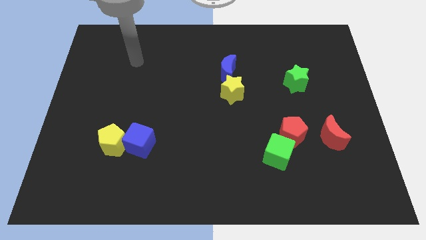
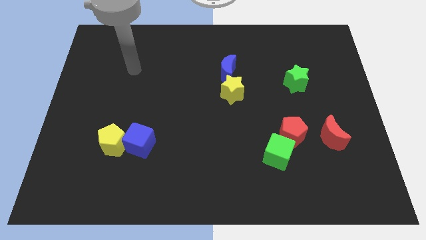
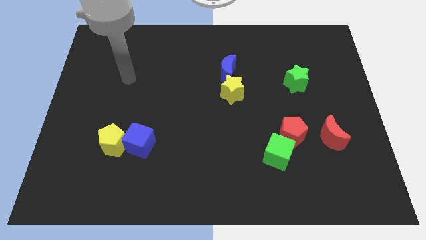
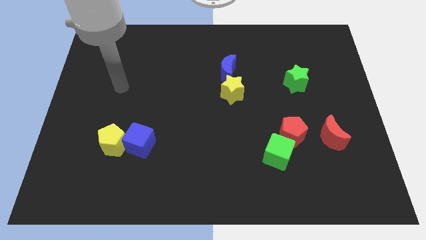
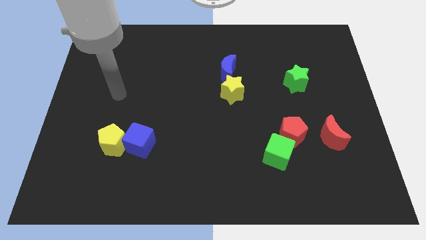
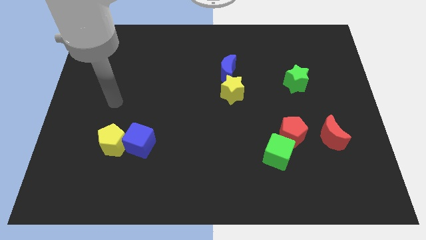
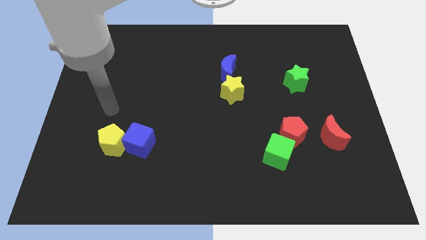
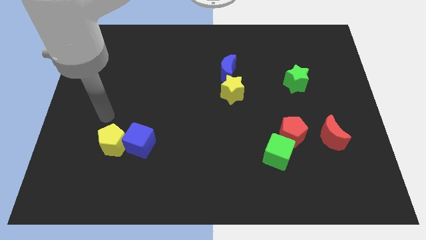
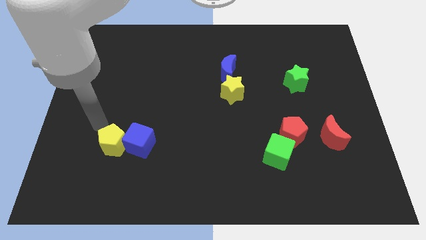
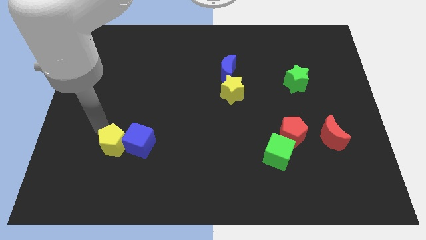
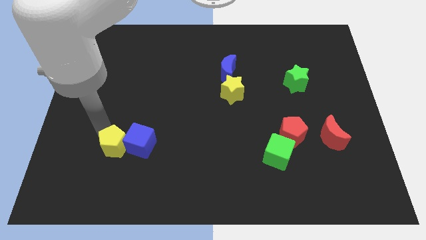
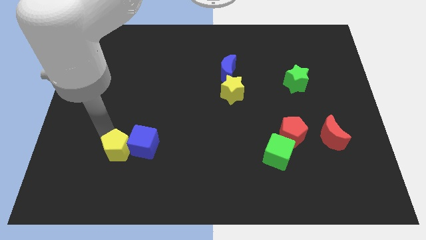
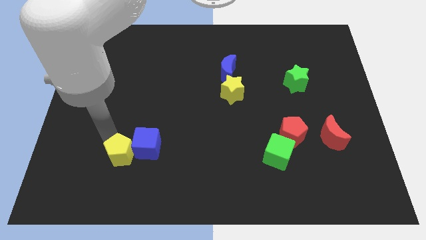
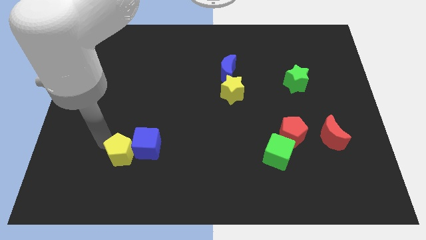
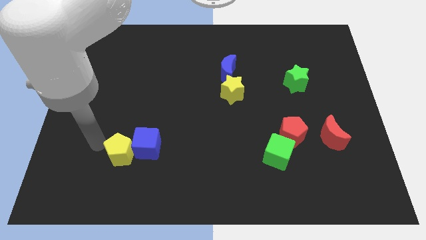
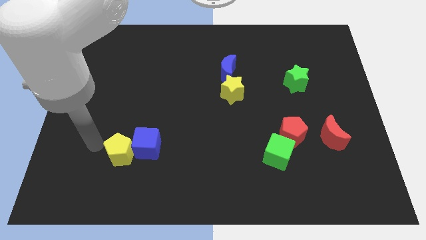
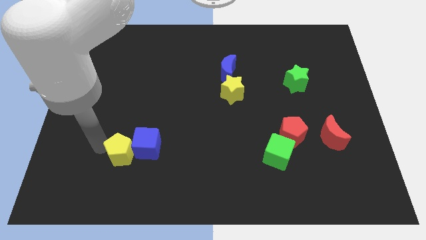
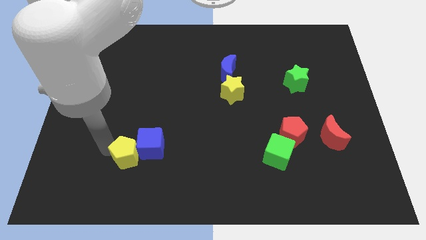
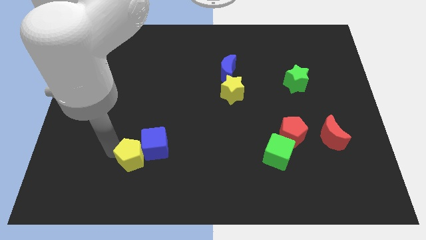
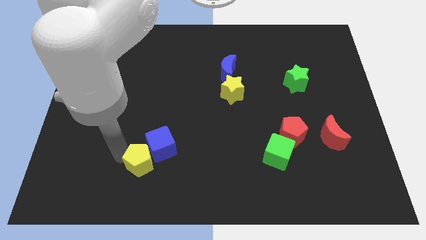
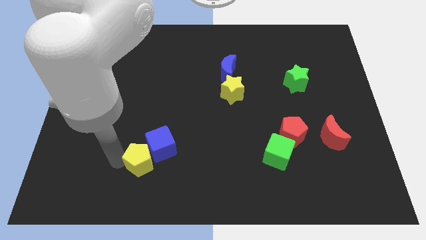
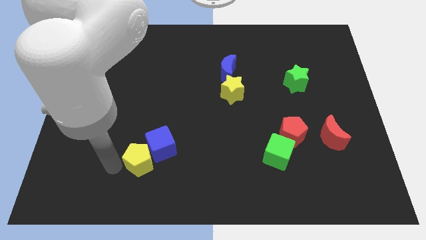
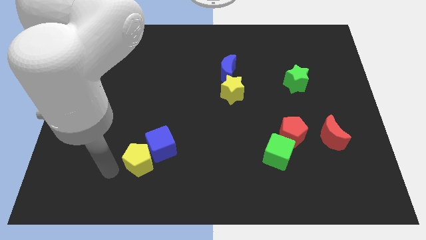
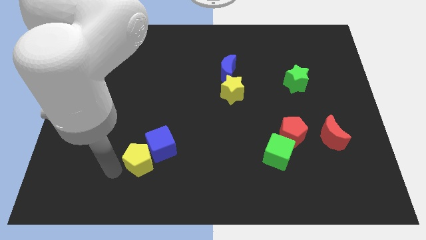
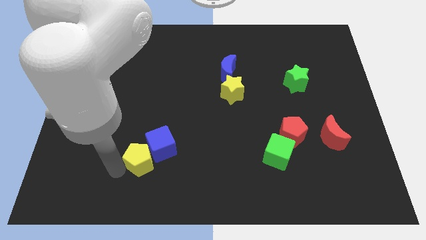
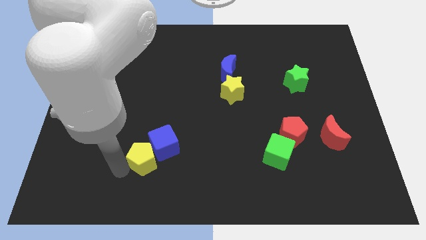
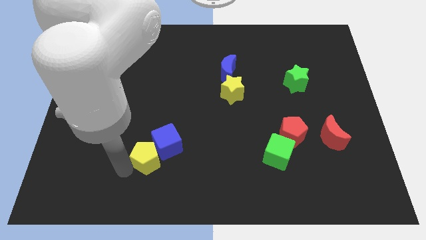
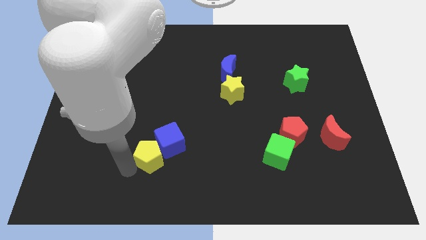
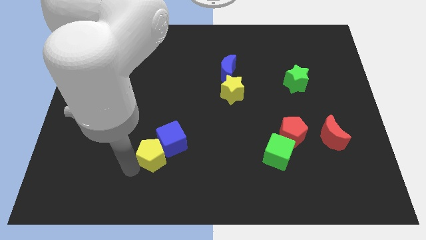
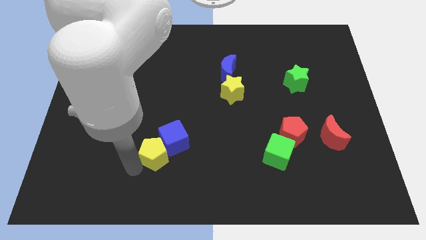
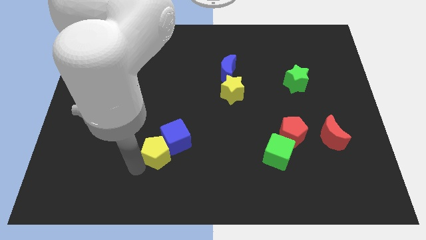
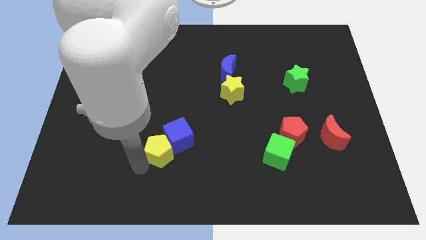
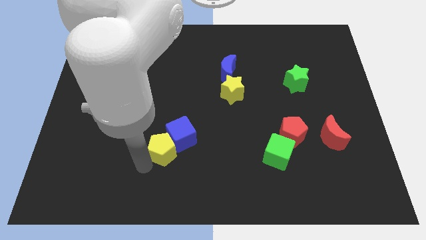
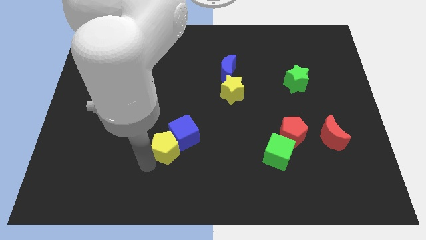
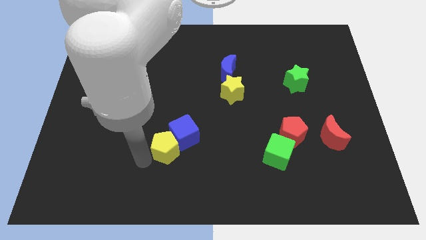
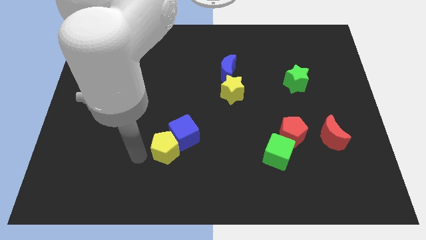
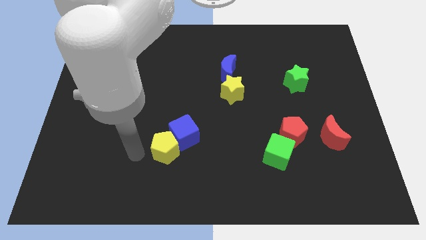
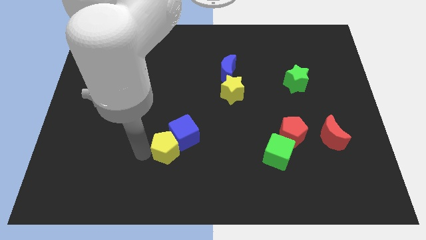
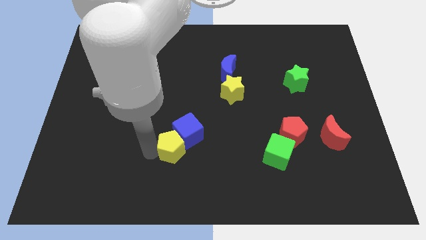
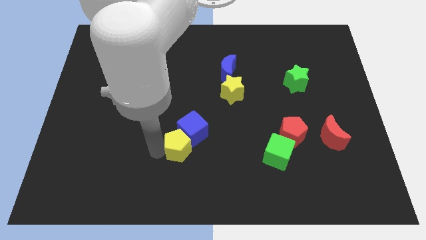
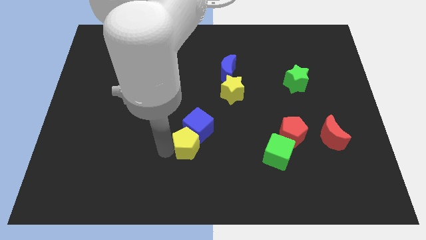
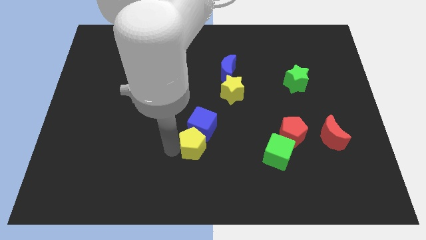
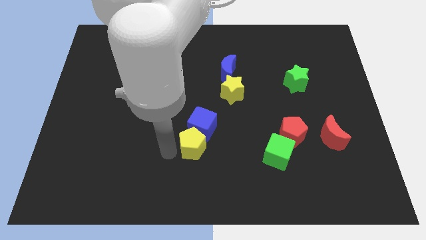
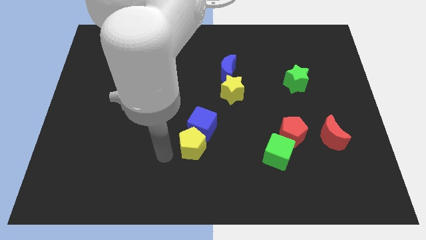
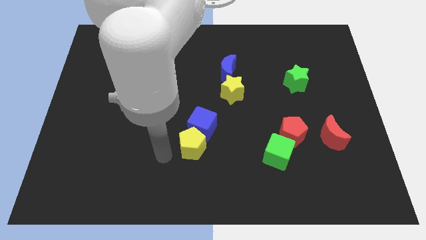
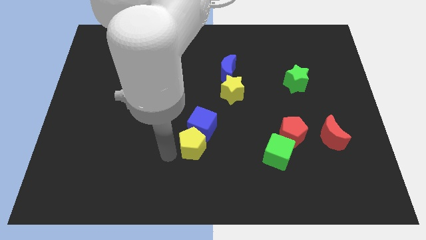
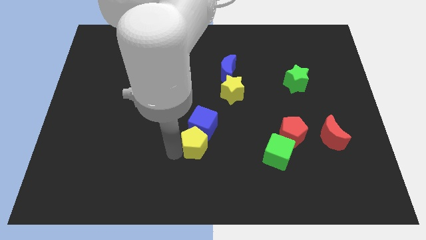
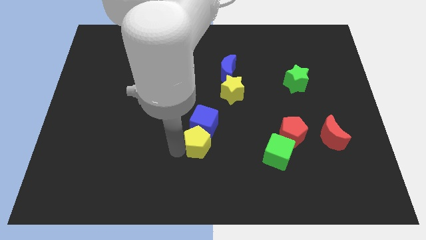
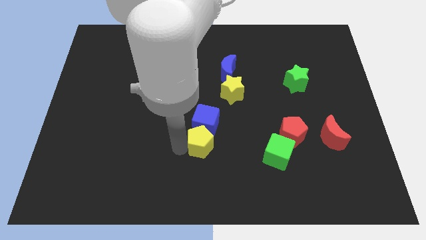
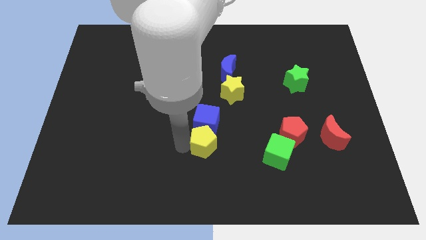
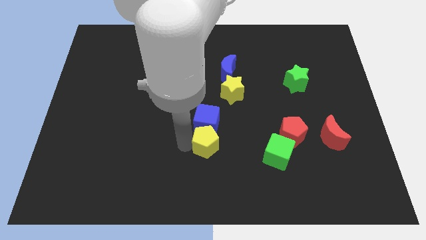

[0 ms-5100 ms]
push the yellow pentagon right

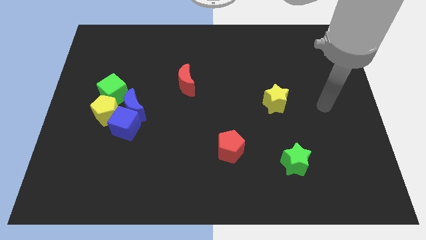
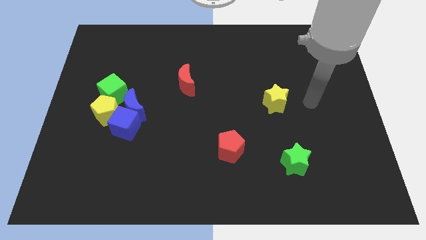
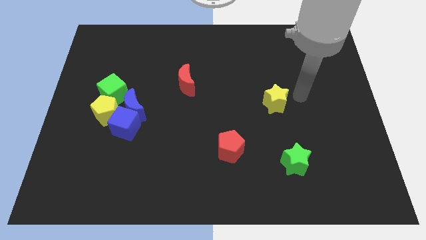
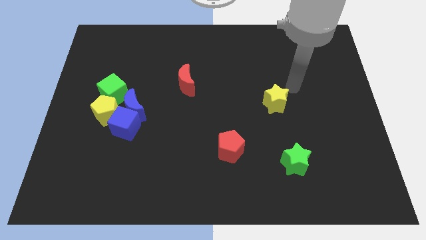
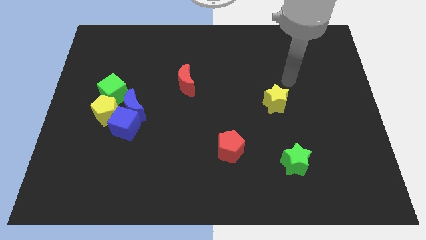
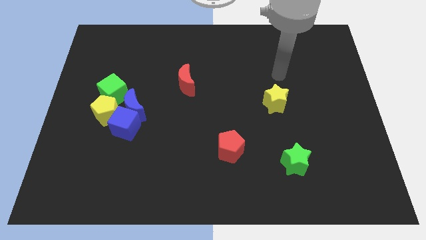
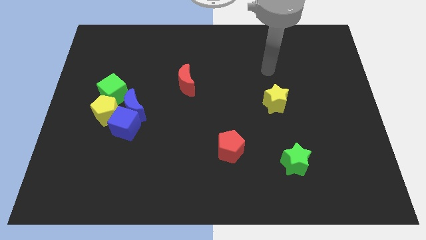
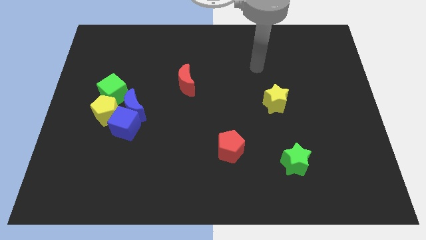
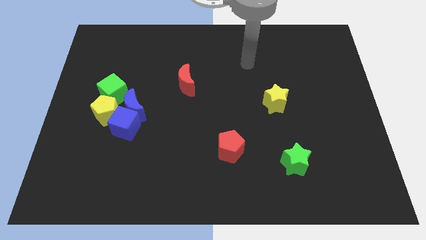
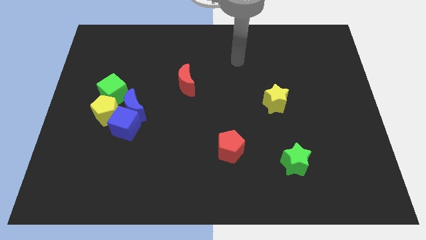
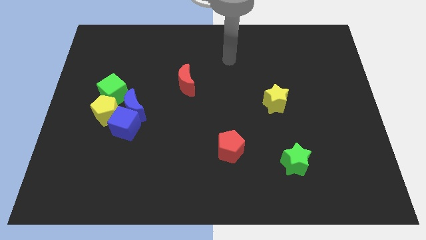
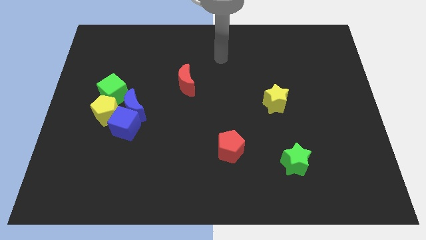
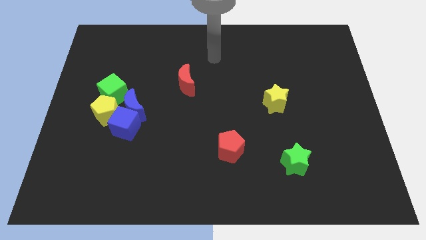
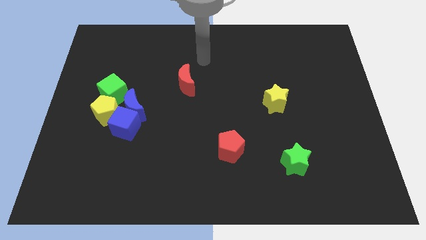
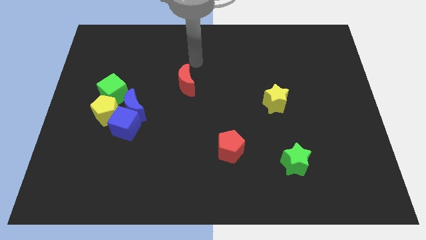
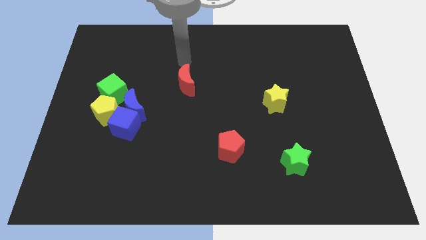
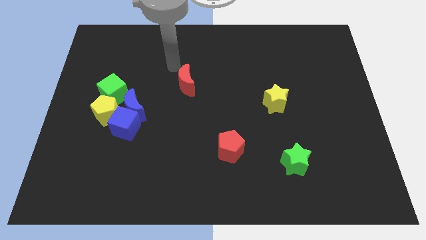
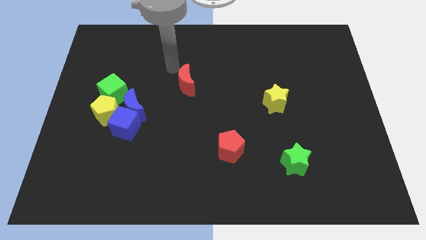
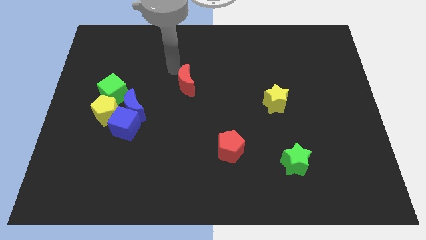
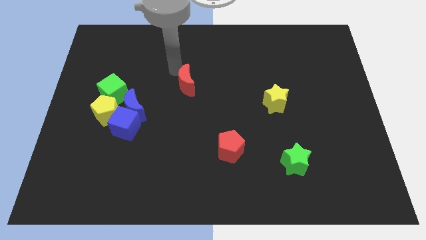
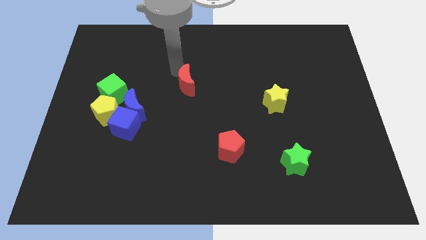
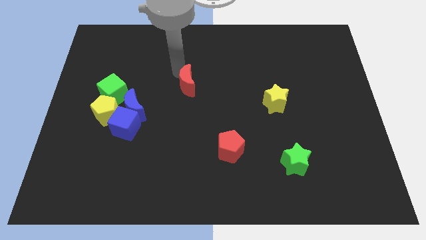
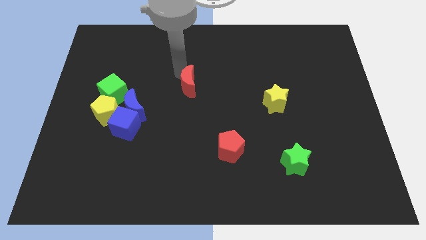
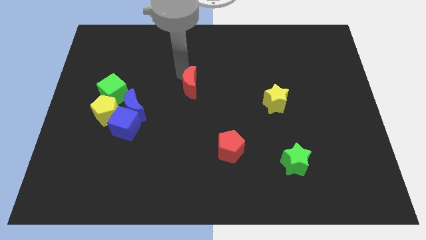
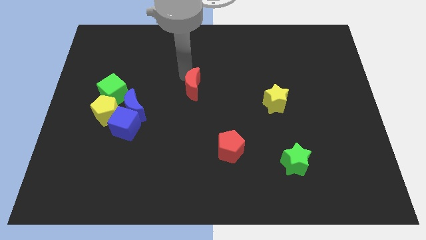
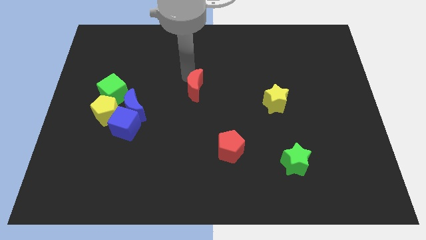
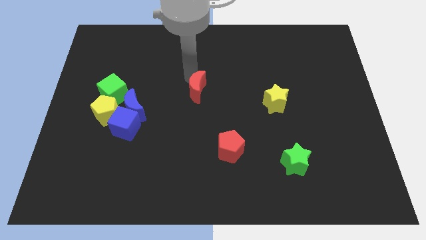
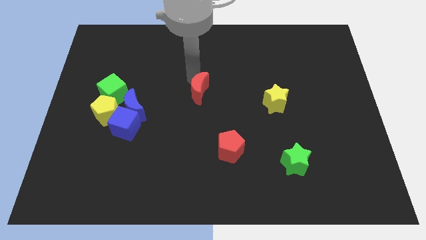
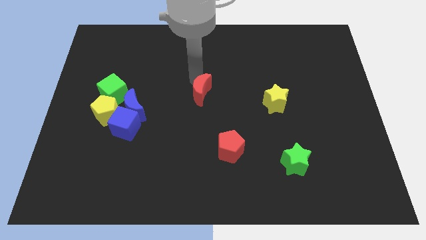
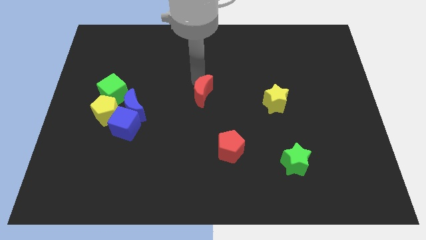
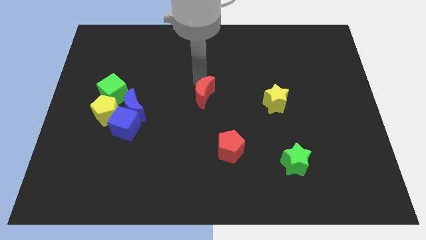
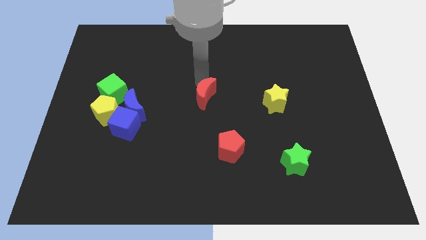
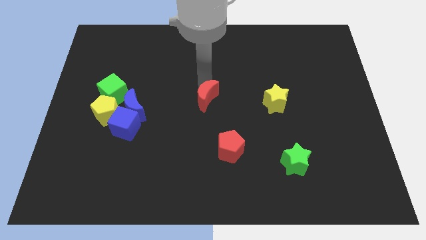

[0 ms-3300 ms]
slide the red moon diagonally down and right a little bit
